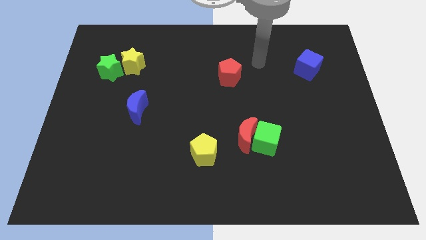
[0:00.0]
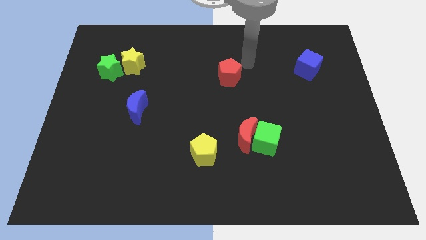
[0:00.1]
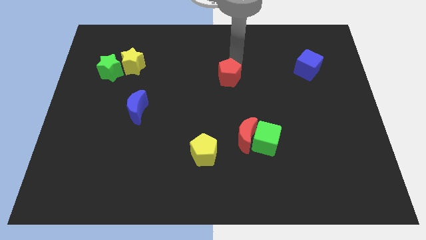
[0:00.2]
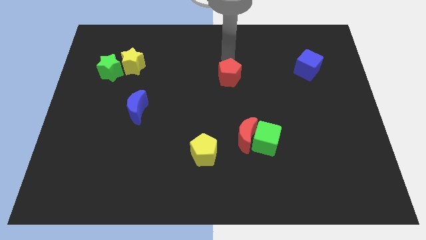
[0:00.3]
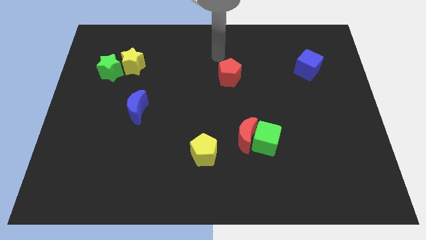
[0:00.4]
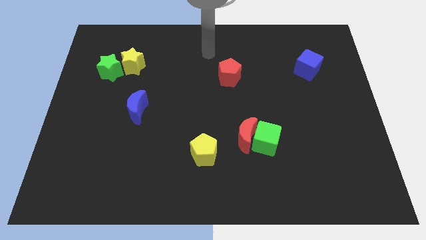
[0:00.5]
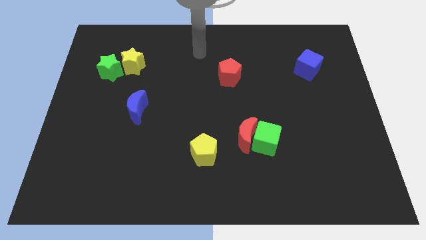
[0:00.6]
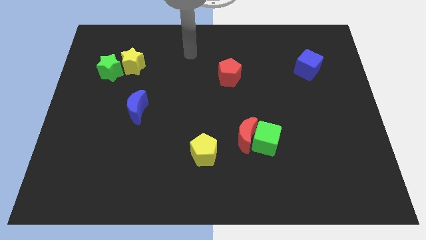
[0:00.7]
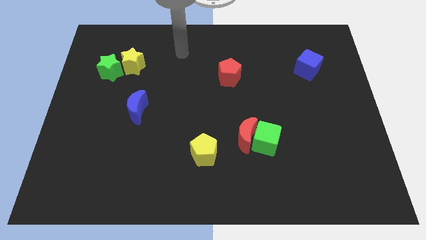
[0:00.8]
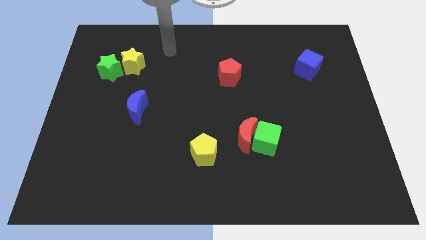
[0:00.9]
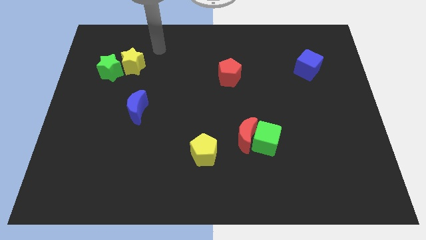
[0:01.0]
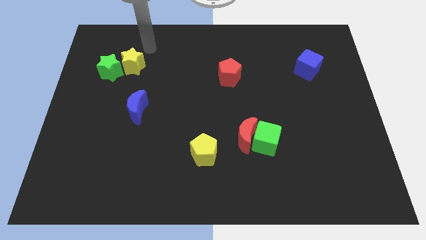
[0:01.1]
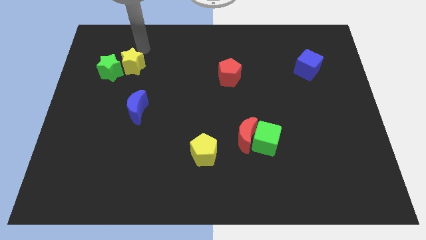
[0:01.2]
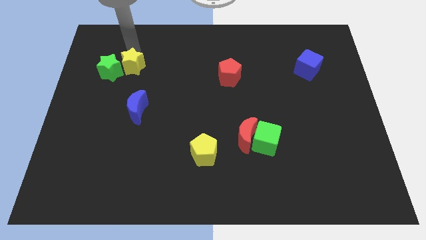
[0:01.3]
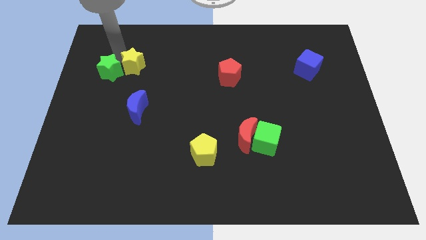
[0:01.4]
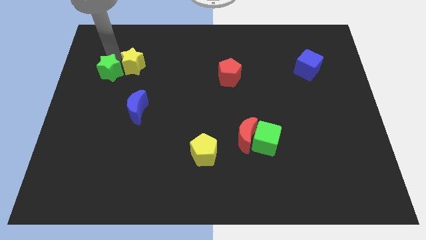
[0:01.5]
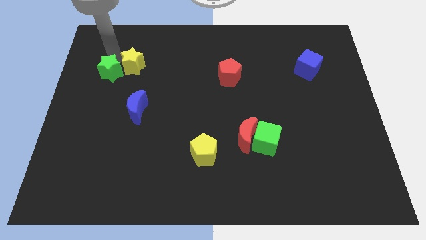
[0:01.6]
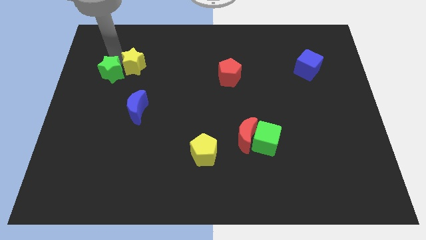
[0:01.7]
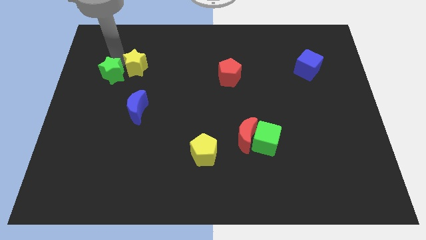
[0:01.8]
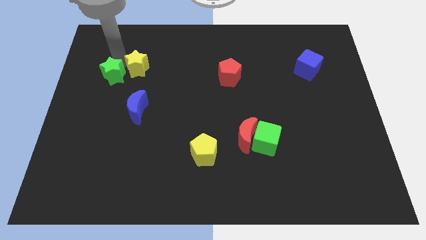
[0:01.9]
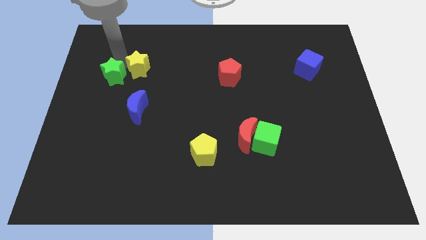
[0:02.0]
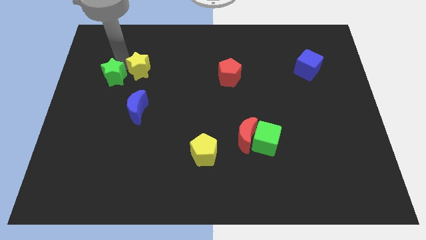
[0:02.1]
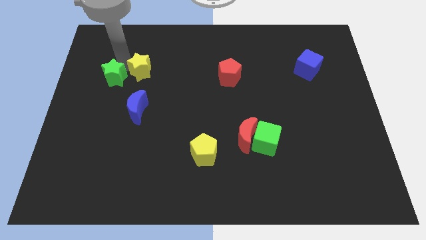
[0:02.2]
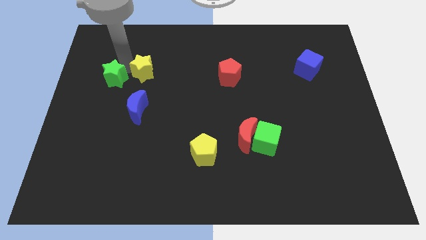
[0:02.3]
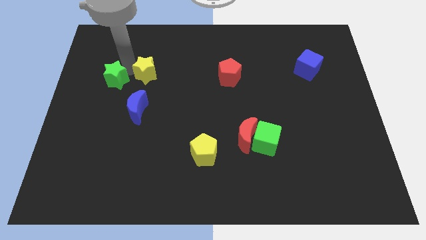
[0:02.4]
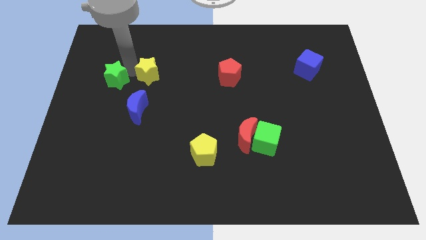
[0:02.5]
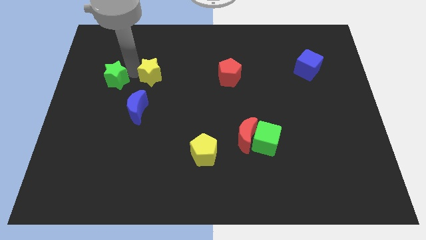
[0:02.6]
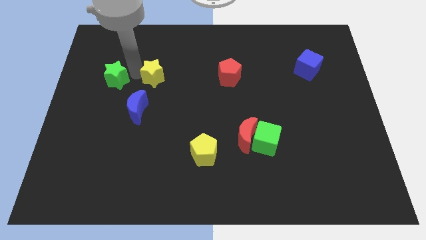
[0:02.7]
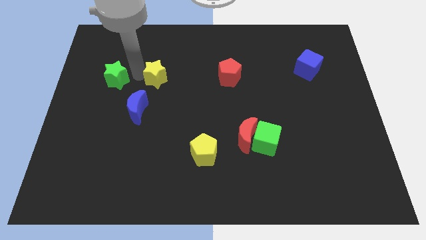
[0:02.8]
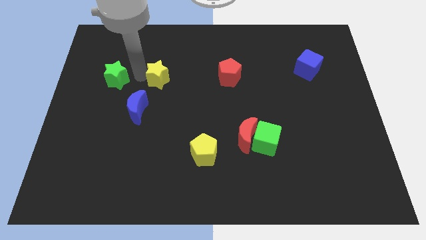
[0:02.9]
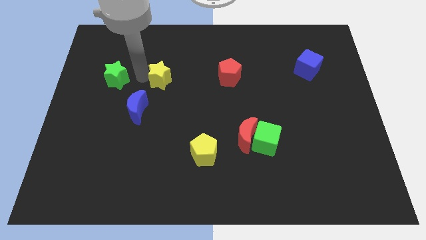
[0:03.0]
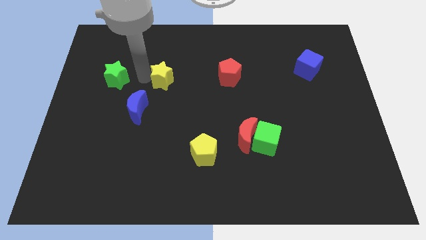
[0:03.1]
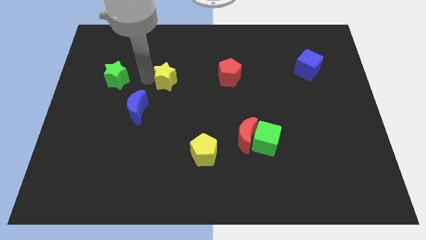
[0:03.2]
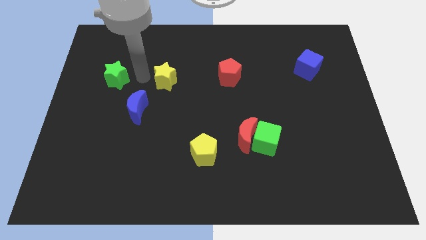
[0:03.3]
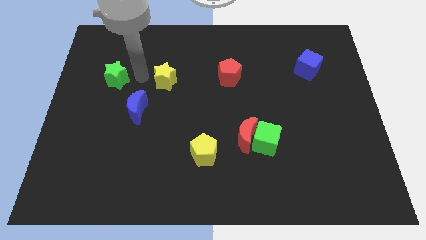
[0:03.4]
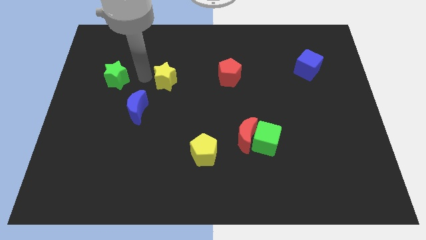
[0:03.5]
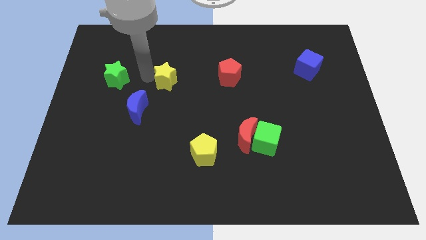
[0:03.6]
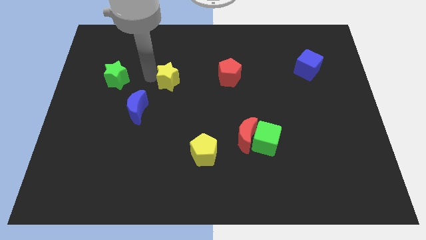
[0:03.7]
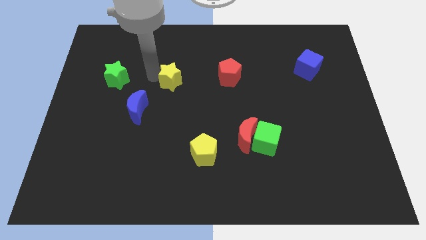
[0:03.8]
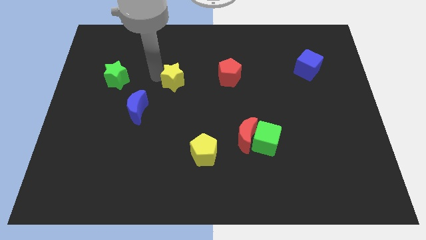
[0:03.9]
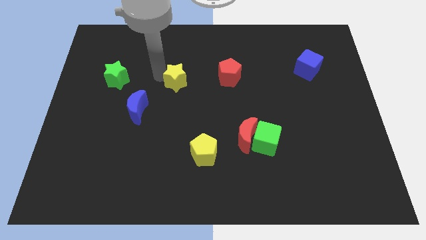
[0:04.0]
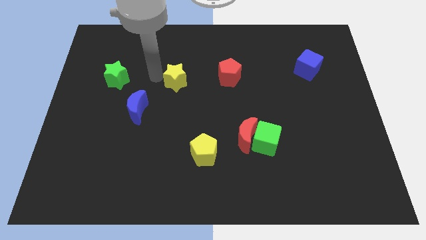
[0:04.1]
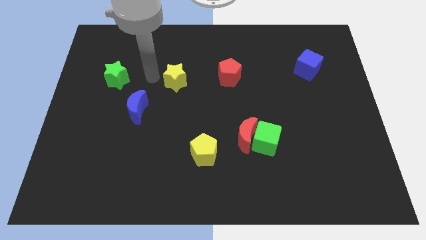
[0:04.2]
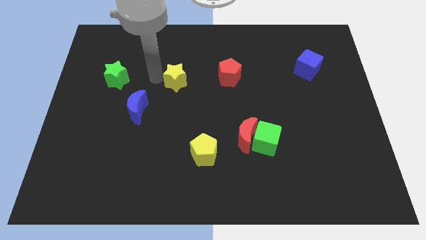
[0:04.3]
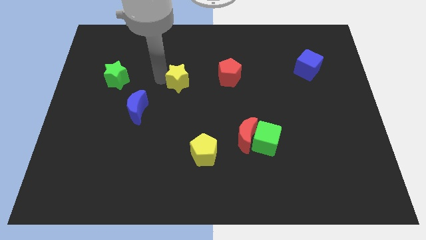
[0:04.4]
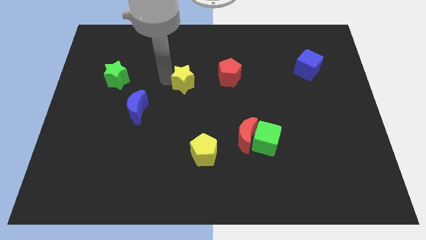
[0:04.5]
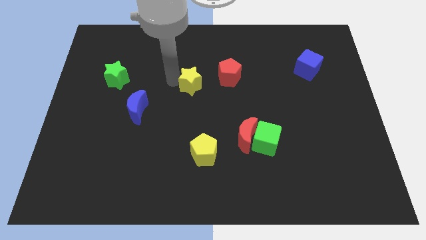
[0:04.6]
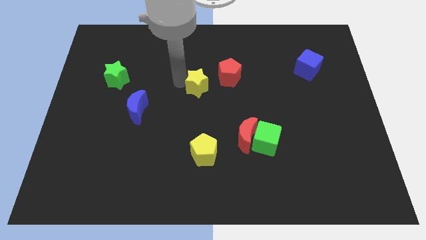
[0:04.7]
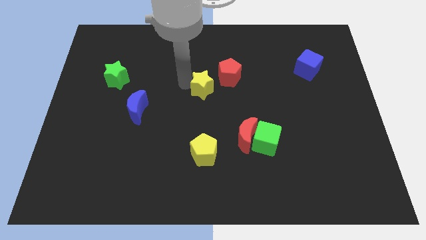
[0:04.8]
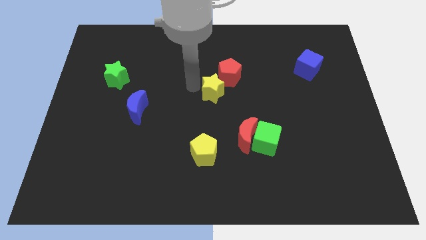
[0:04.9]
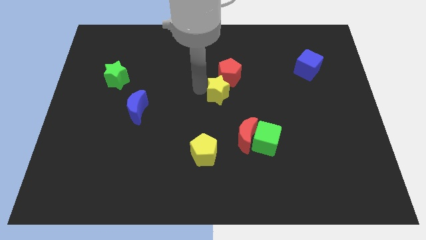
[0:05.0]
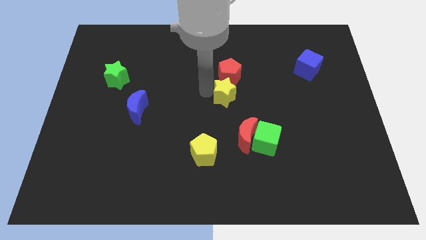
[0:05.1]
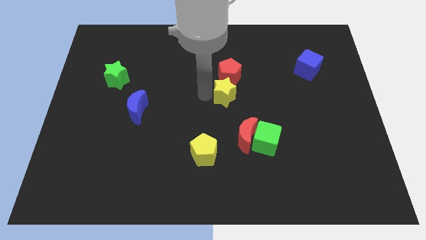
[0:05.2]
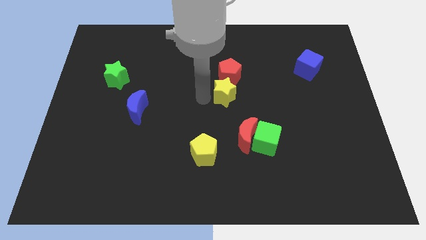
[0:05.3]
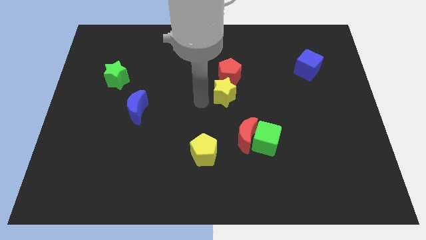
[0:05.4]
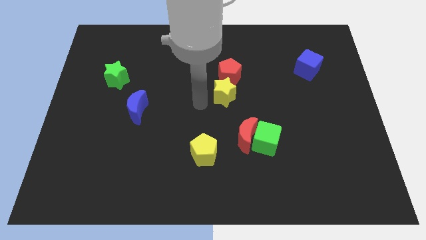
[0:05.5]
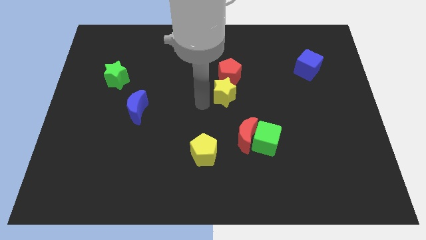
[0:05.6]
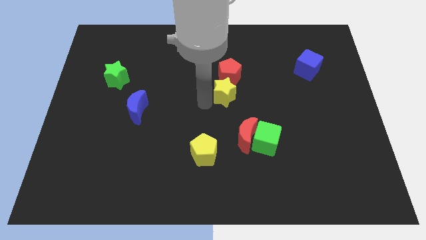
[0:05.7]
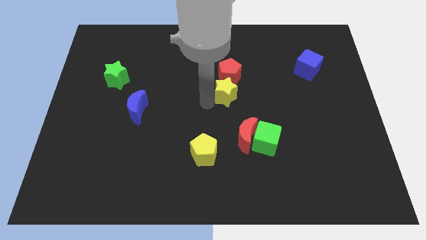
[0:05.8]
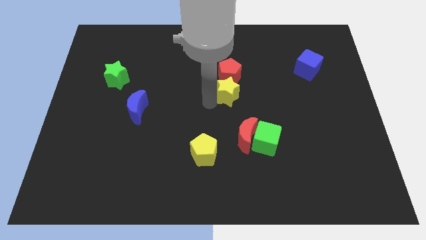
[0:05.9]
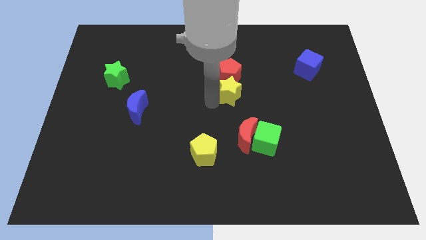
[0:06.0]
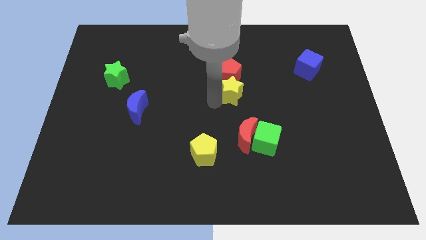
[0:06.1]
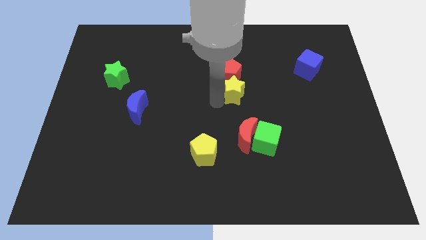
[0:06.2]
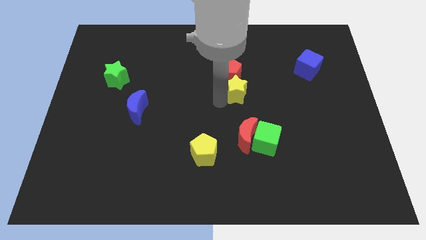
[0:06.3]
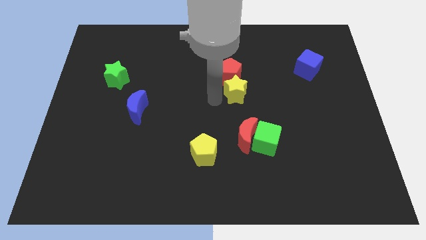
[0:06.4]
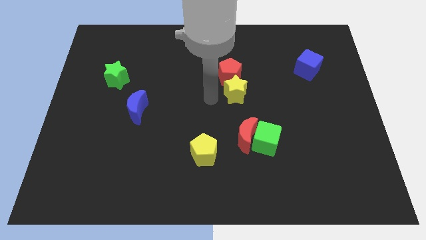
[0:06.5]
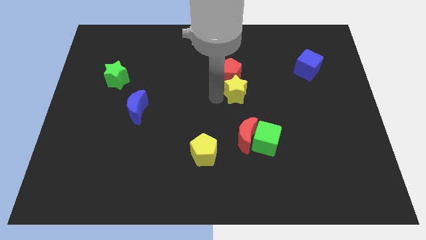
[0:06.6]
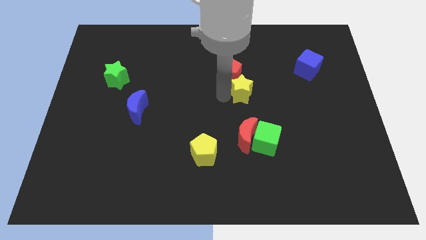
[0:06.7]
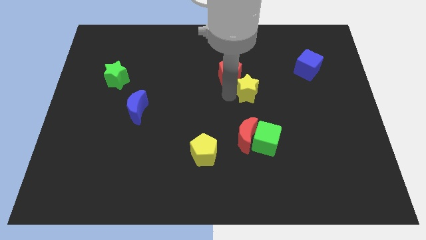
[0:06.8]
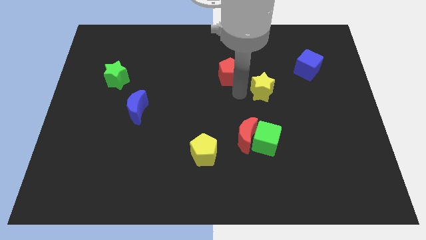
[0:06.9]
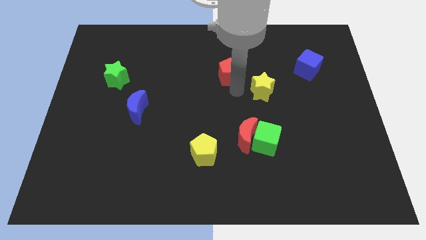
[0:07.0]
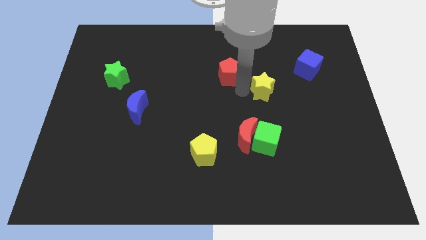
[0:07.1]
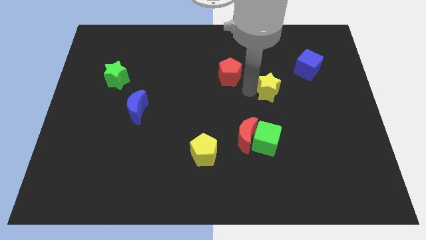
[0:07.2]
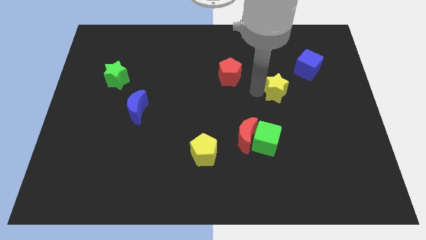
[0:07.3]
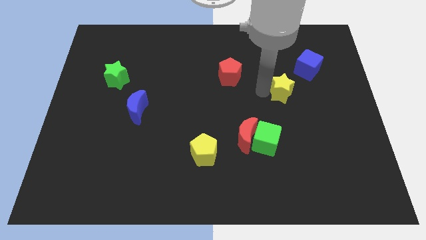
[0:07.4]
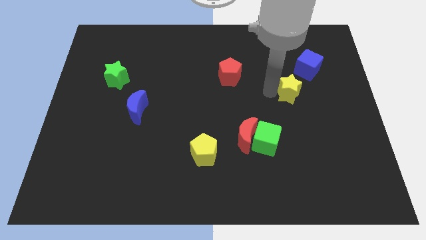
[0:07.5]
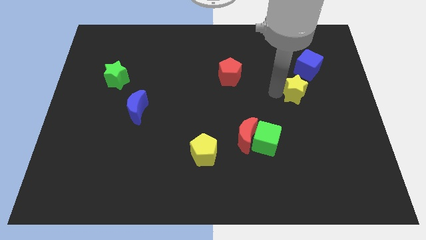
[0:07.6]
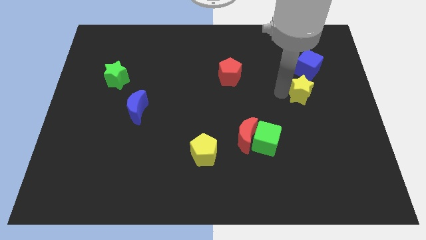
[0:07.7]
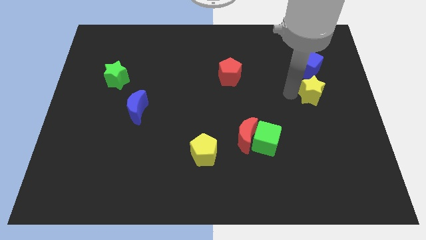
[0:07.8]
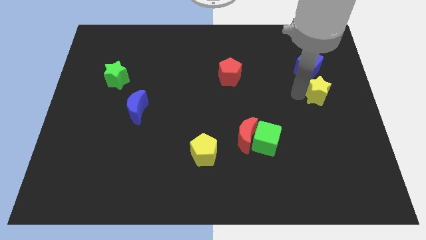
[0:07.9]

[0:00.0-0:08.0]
slide the yellow star to the center right
